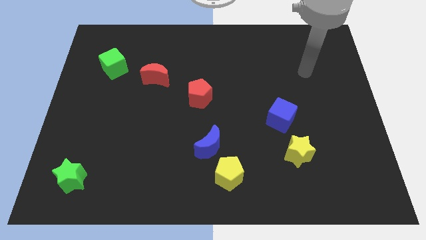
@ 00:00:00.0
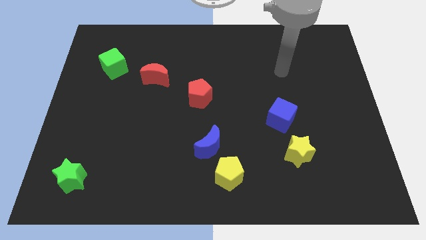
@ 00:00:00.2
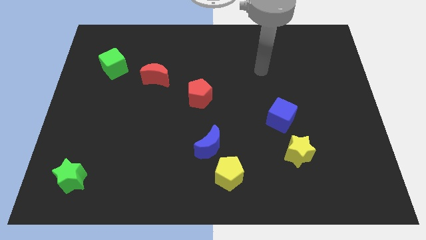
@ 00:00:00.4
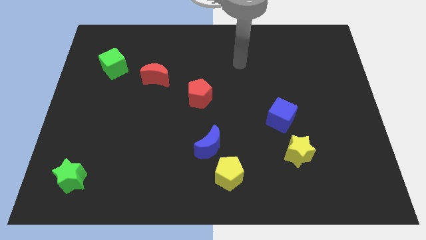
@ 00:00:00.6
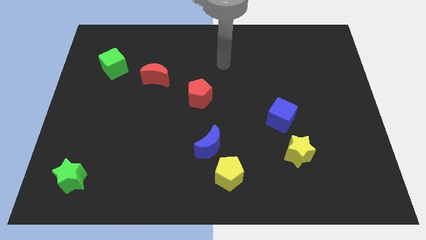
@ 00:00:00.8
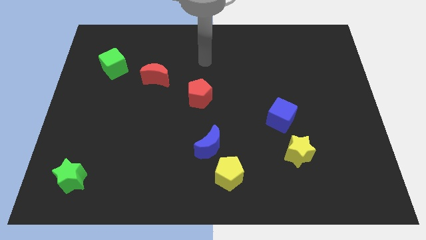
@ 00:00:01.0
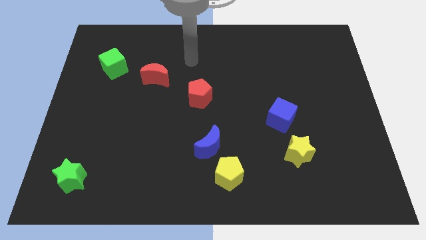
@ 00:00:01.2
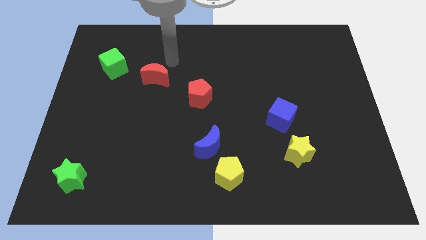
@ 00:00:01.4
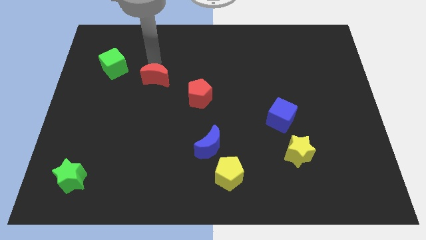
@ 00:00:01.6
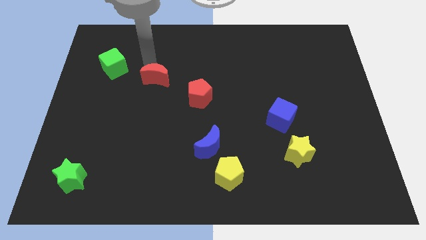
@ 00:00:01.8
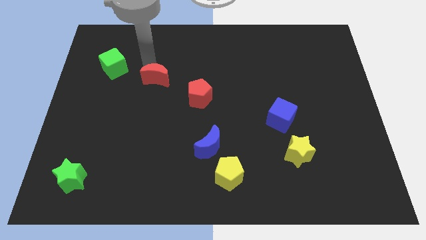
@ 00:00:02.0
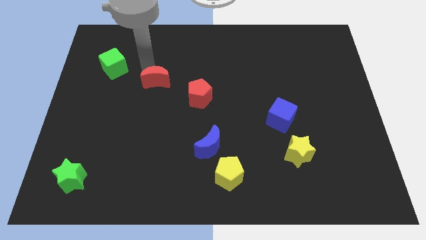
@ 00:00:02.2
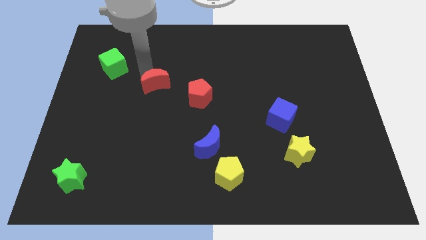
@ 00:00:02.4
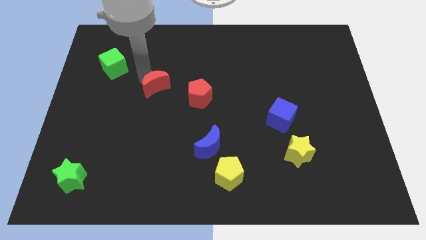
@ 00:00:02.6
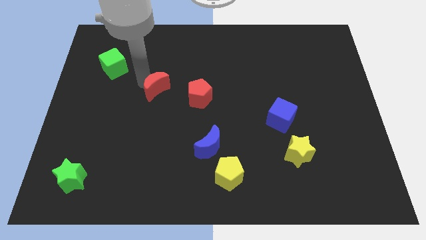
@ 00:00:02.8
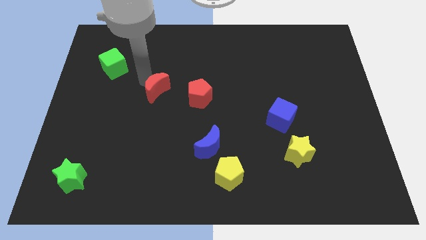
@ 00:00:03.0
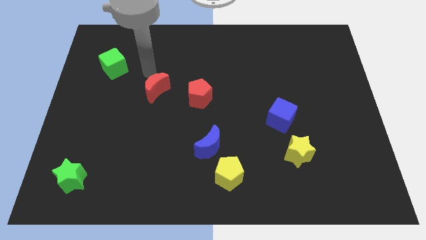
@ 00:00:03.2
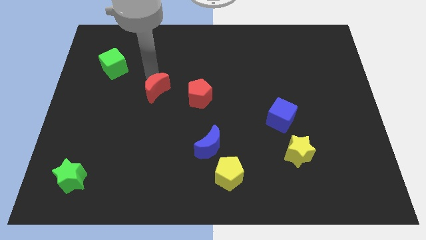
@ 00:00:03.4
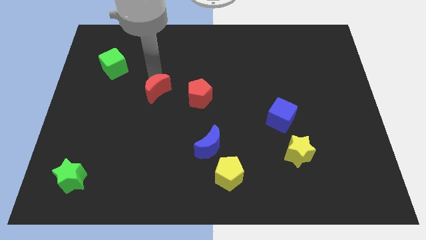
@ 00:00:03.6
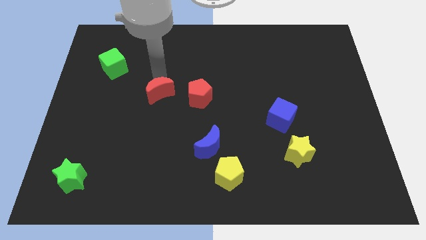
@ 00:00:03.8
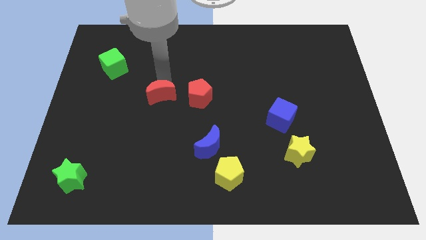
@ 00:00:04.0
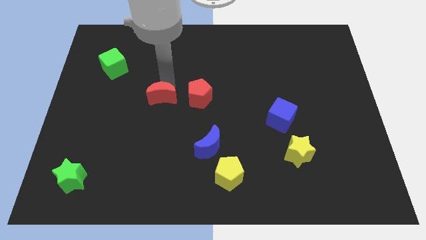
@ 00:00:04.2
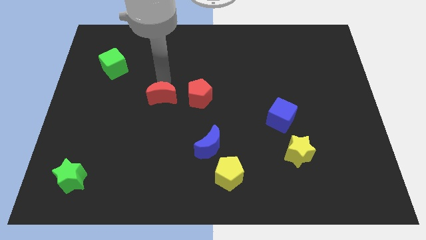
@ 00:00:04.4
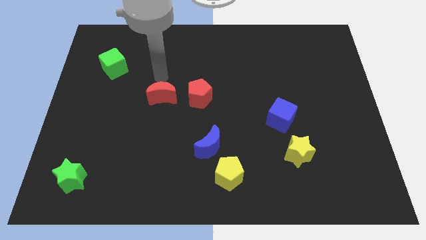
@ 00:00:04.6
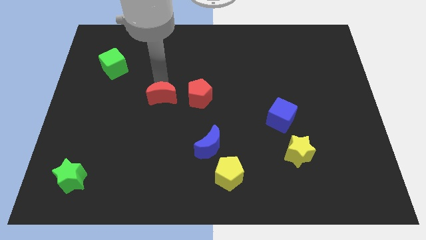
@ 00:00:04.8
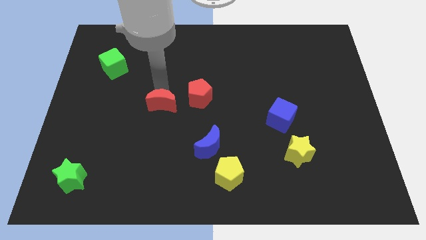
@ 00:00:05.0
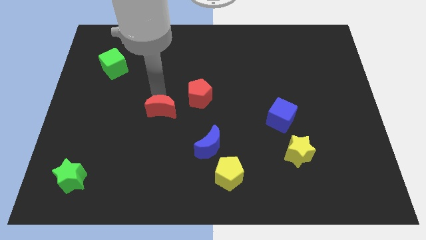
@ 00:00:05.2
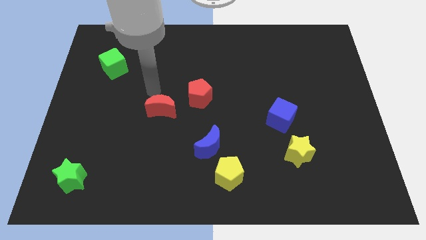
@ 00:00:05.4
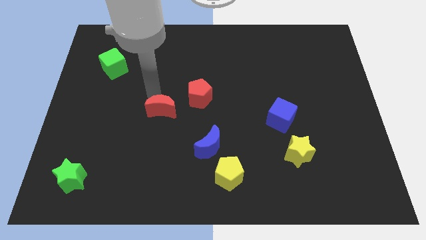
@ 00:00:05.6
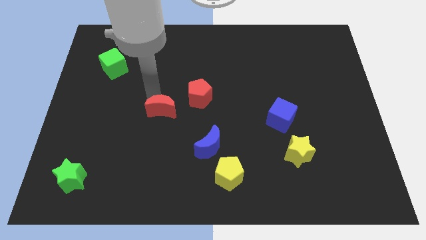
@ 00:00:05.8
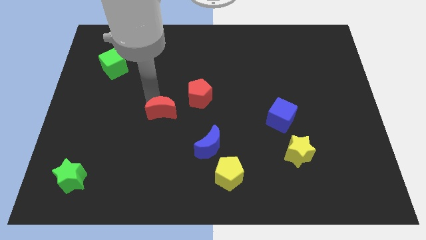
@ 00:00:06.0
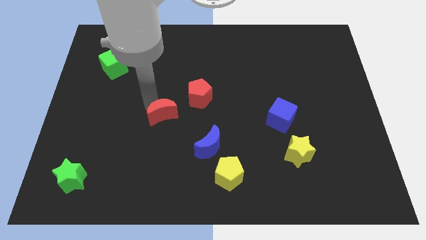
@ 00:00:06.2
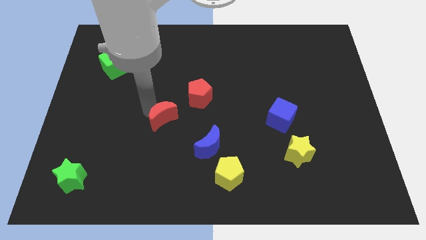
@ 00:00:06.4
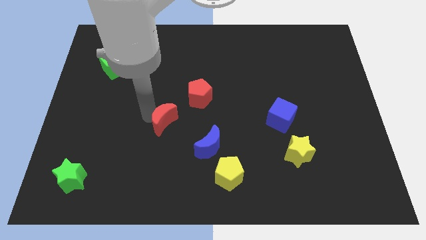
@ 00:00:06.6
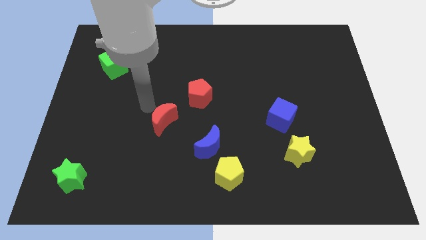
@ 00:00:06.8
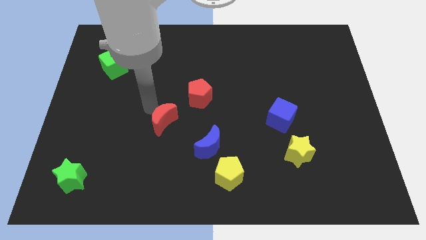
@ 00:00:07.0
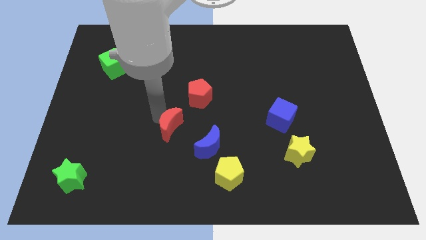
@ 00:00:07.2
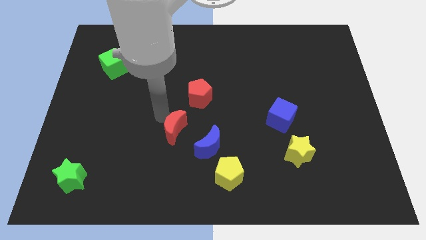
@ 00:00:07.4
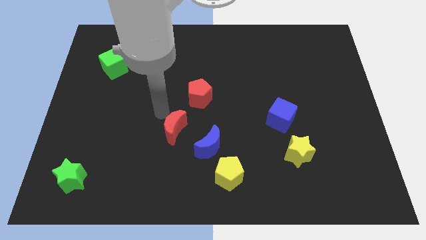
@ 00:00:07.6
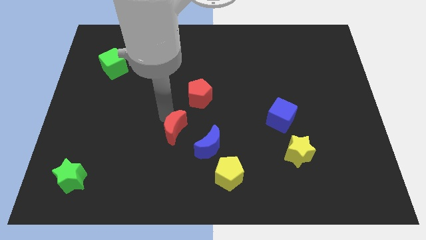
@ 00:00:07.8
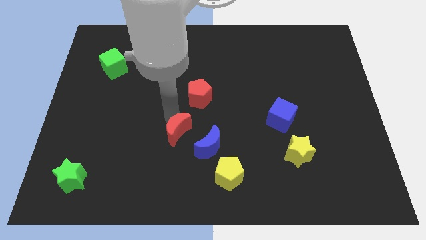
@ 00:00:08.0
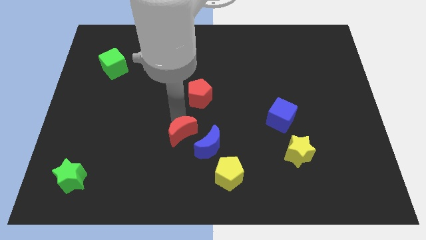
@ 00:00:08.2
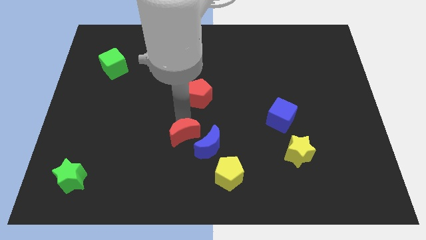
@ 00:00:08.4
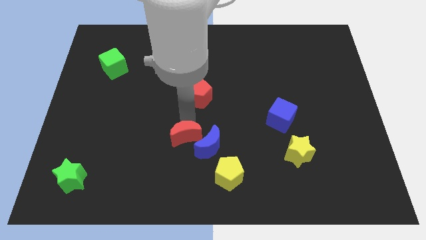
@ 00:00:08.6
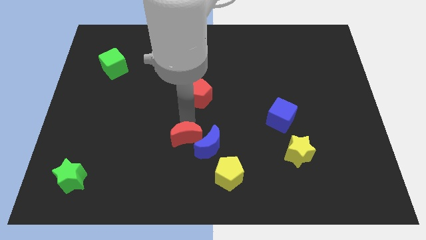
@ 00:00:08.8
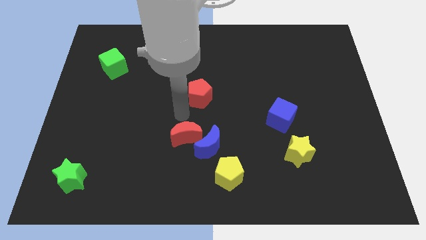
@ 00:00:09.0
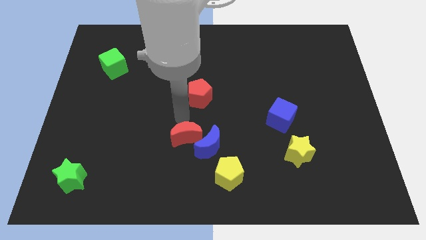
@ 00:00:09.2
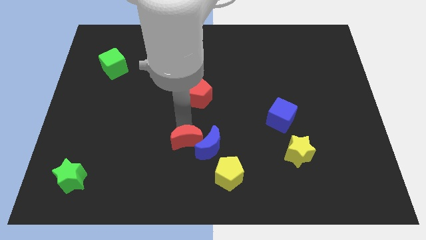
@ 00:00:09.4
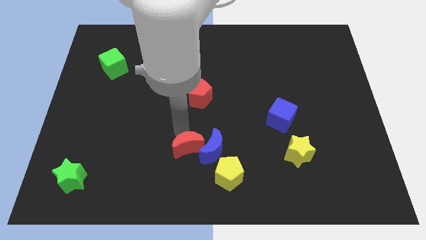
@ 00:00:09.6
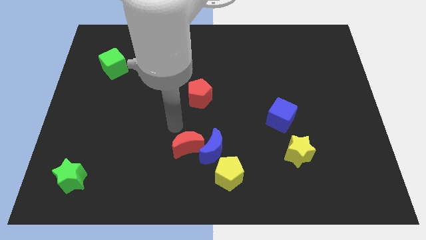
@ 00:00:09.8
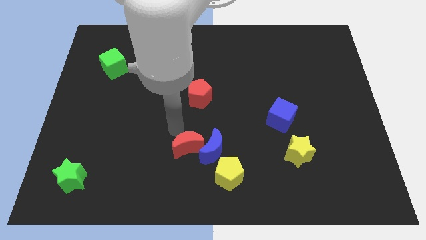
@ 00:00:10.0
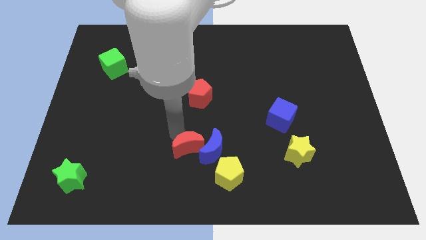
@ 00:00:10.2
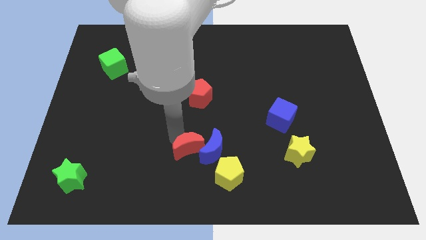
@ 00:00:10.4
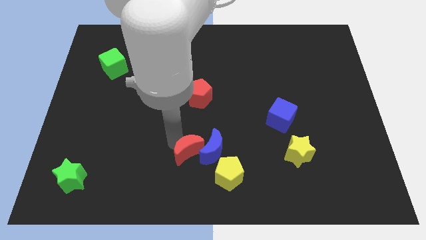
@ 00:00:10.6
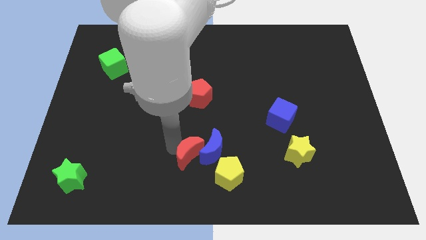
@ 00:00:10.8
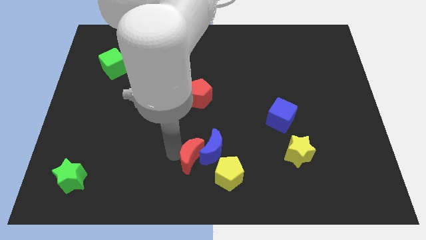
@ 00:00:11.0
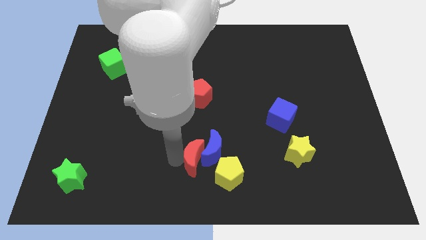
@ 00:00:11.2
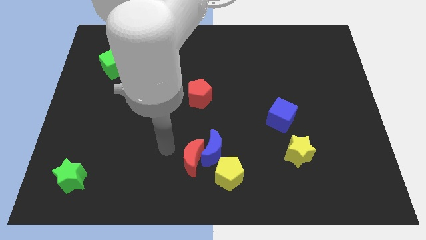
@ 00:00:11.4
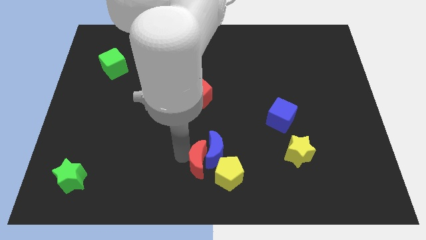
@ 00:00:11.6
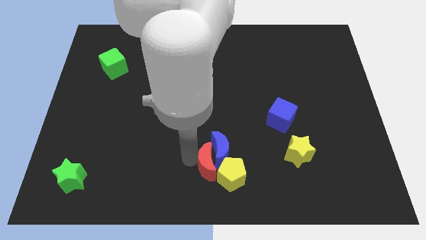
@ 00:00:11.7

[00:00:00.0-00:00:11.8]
move the red moon to the yellow pentagon

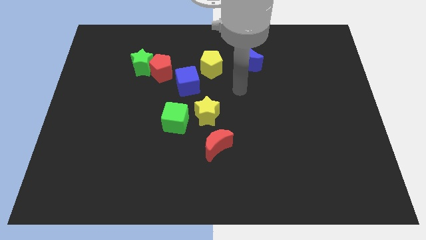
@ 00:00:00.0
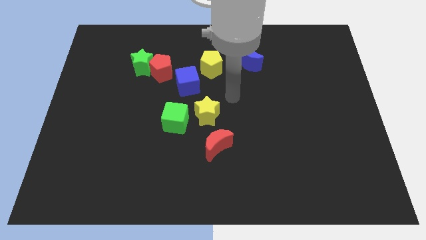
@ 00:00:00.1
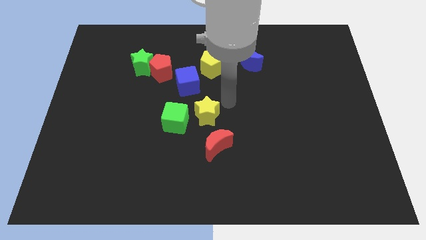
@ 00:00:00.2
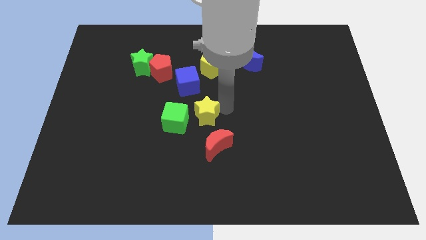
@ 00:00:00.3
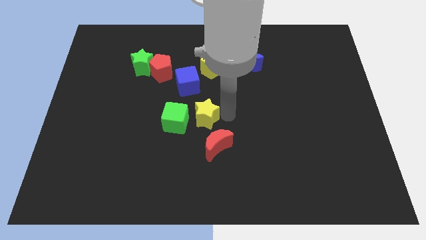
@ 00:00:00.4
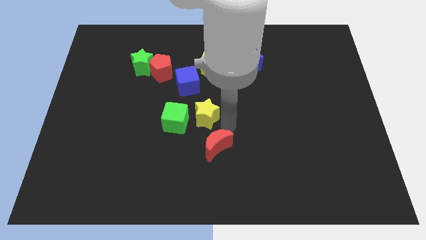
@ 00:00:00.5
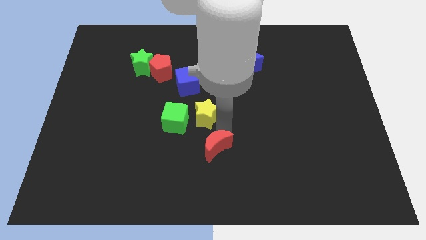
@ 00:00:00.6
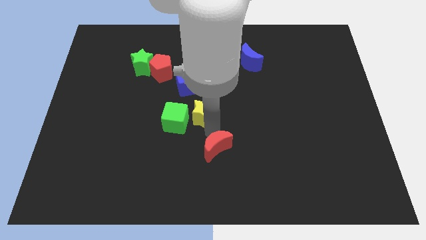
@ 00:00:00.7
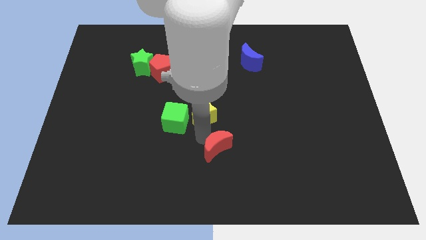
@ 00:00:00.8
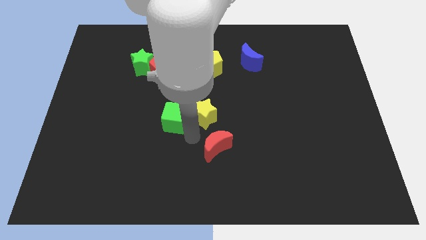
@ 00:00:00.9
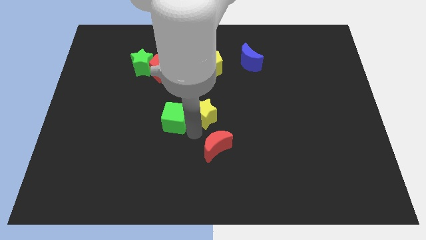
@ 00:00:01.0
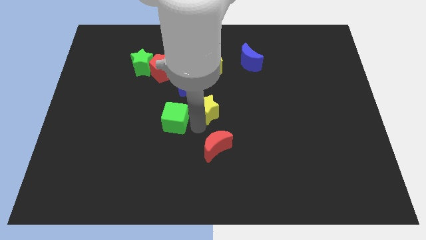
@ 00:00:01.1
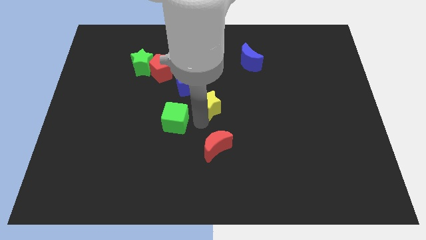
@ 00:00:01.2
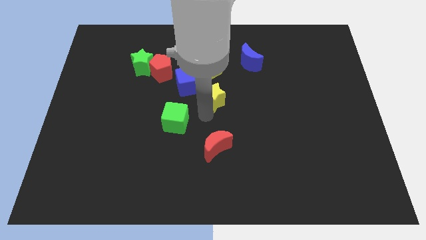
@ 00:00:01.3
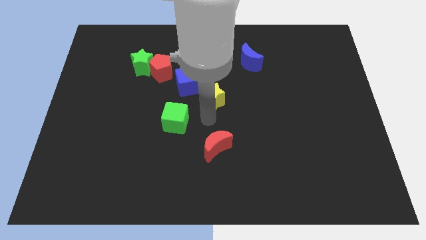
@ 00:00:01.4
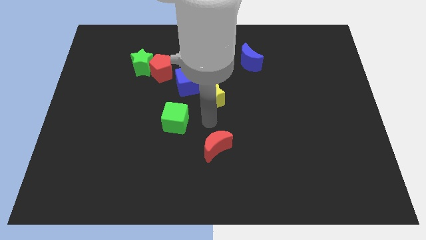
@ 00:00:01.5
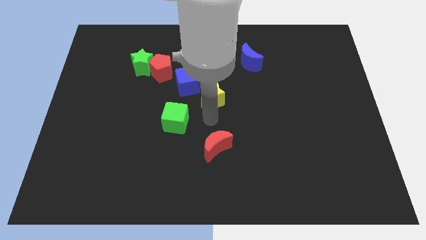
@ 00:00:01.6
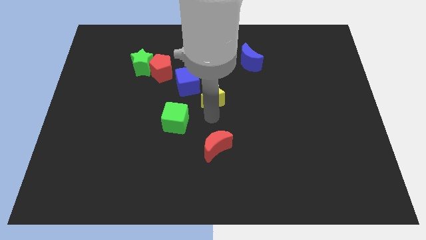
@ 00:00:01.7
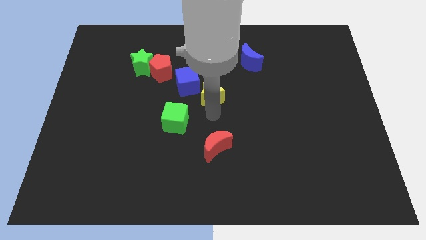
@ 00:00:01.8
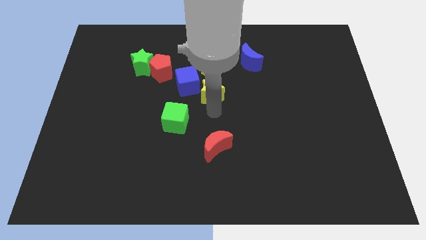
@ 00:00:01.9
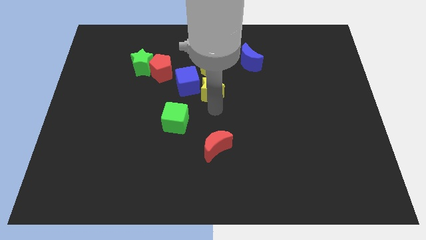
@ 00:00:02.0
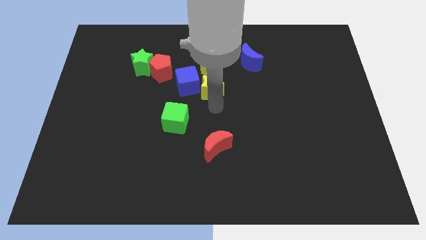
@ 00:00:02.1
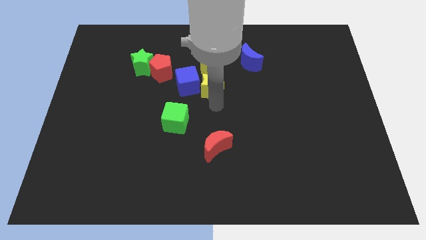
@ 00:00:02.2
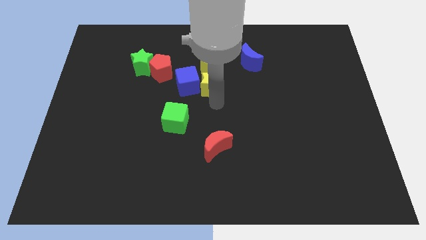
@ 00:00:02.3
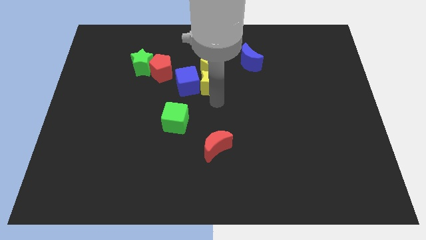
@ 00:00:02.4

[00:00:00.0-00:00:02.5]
slide the yellow star next to the yellow pentagon
